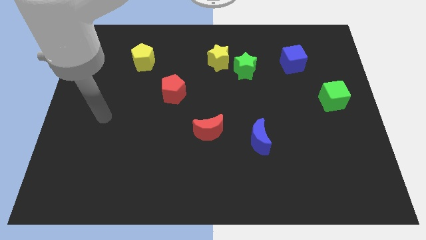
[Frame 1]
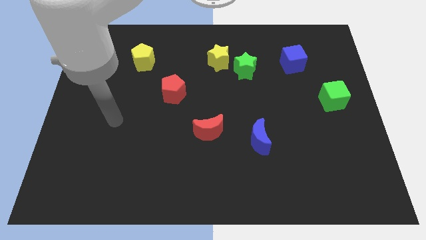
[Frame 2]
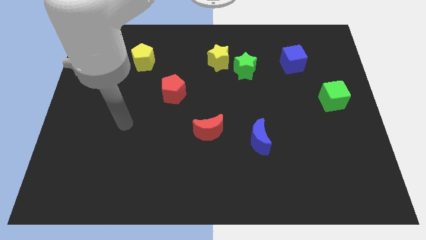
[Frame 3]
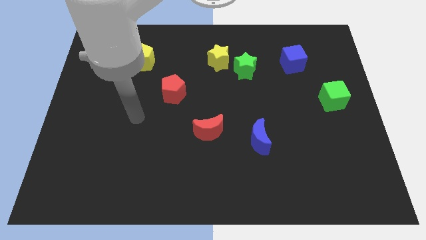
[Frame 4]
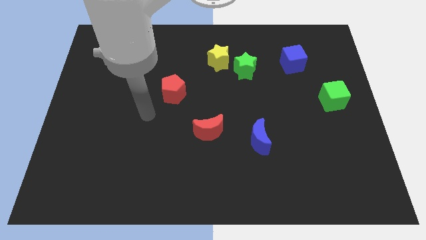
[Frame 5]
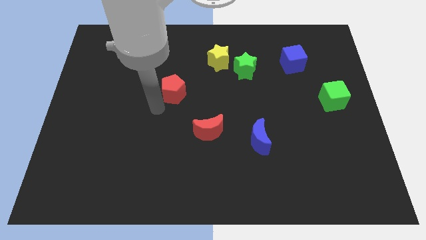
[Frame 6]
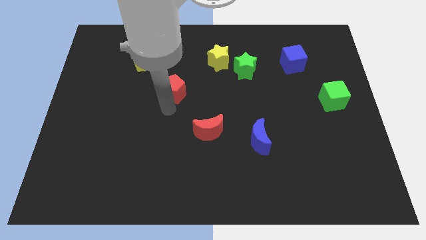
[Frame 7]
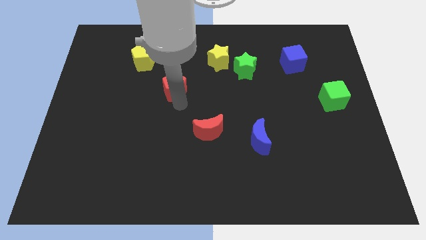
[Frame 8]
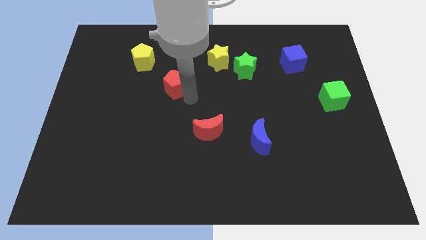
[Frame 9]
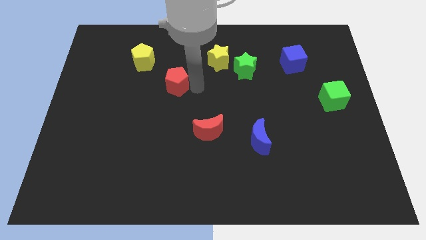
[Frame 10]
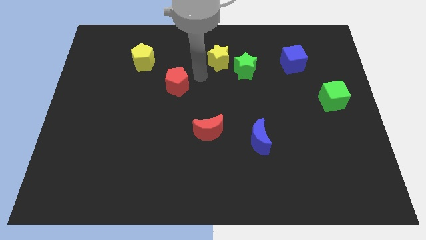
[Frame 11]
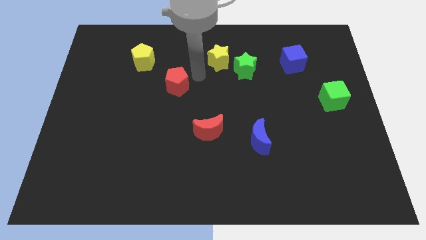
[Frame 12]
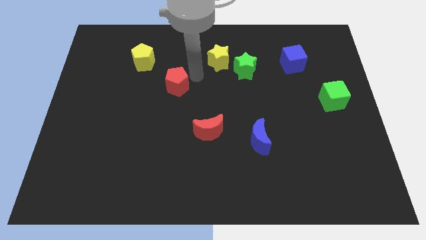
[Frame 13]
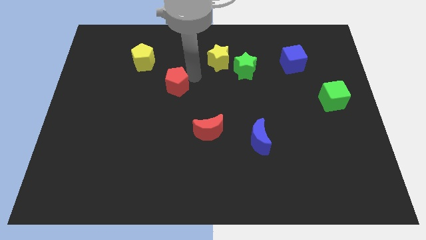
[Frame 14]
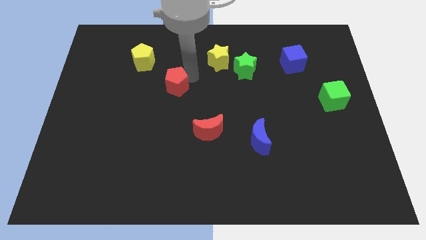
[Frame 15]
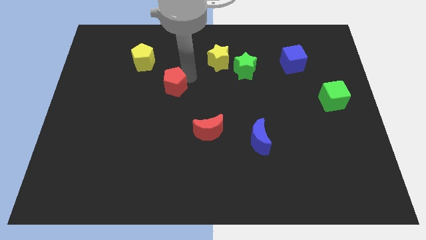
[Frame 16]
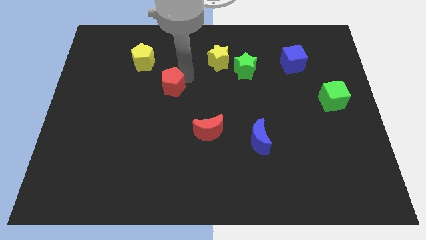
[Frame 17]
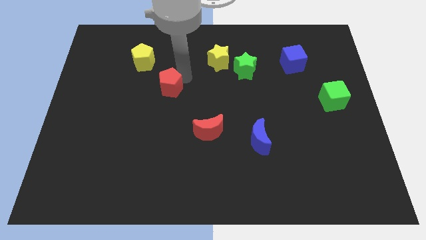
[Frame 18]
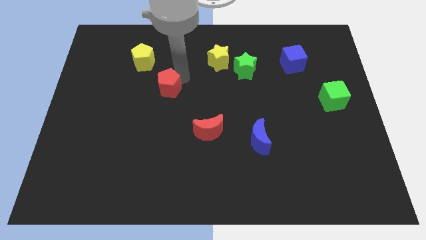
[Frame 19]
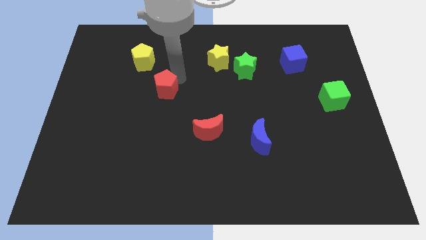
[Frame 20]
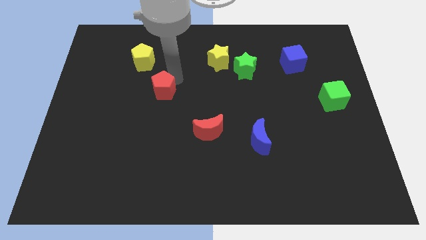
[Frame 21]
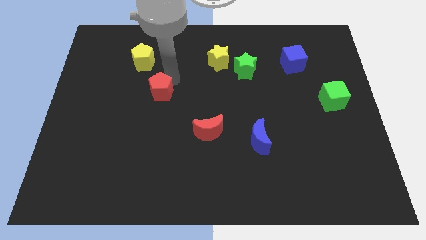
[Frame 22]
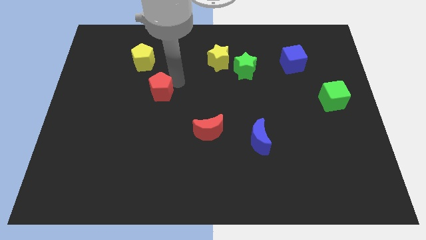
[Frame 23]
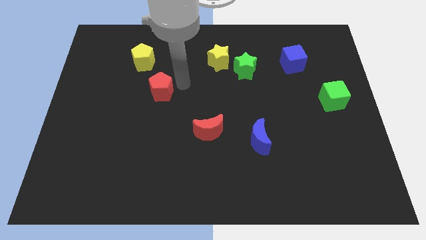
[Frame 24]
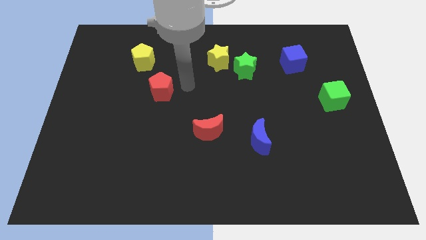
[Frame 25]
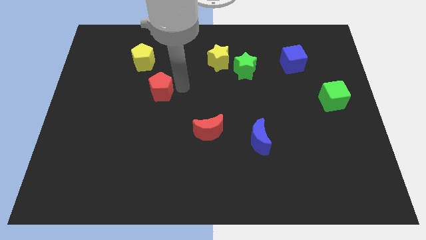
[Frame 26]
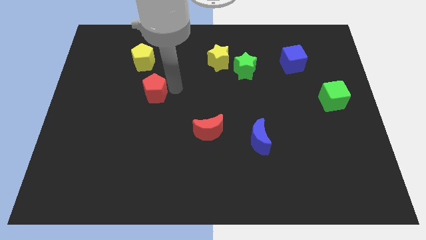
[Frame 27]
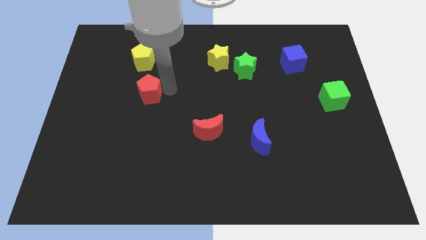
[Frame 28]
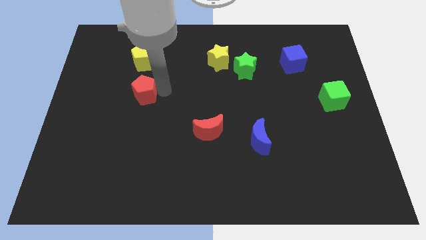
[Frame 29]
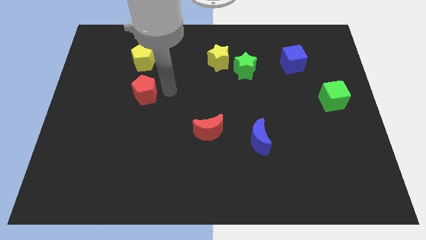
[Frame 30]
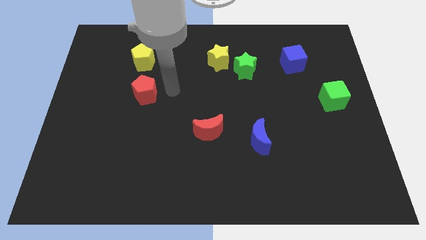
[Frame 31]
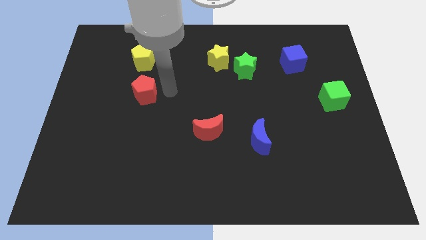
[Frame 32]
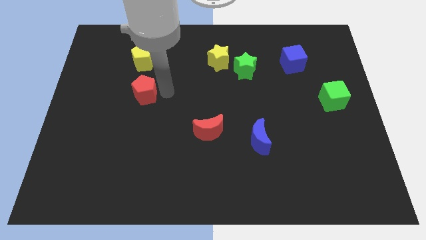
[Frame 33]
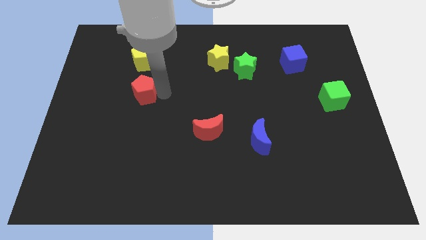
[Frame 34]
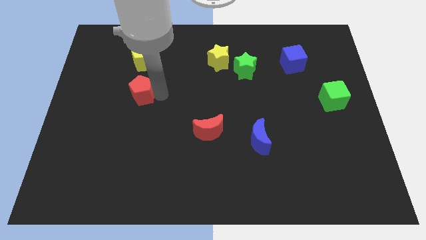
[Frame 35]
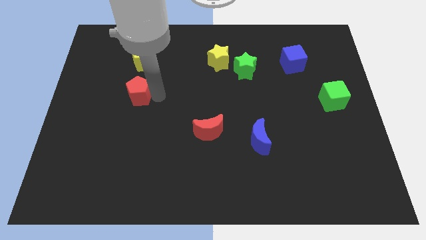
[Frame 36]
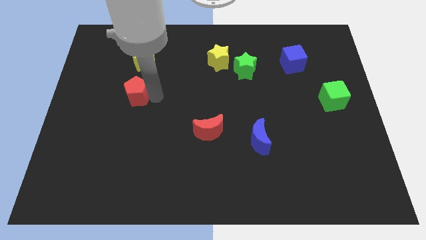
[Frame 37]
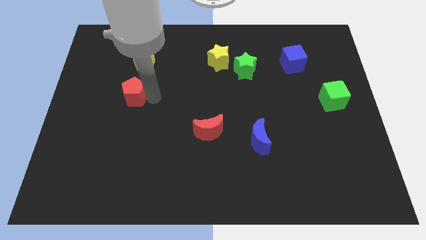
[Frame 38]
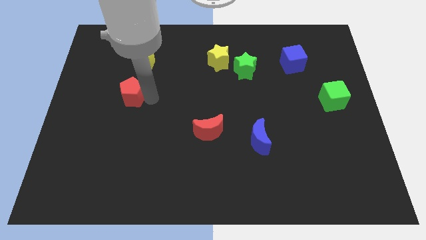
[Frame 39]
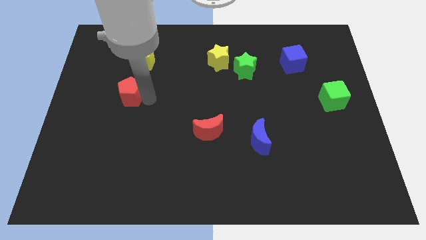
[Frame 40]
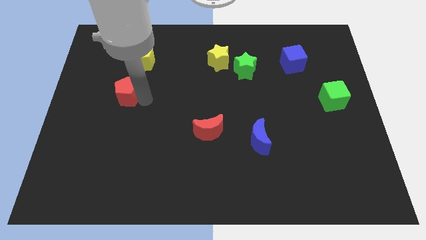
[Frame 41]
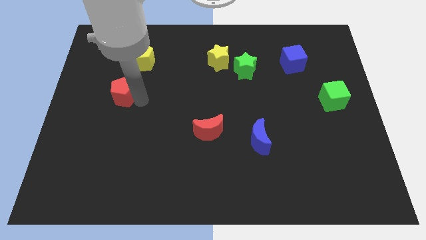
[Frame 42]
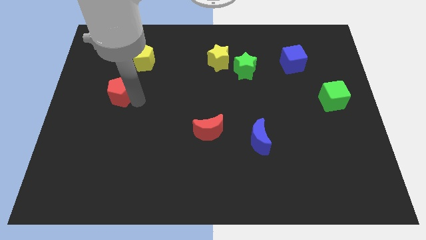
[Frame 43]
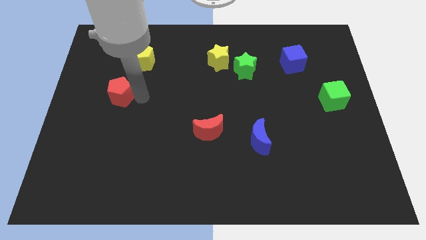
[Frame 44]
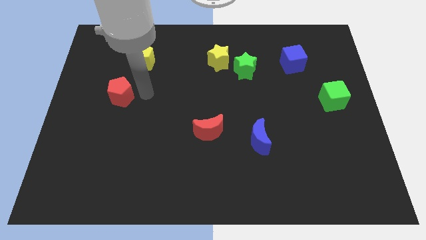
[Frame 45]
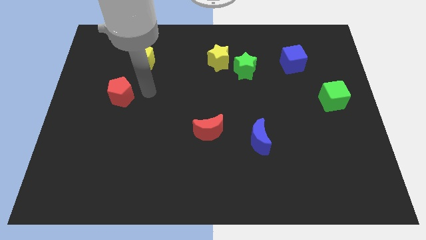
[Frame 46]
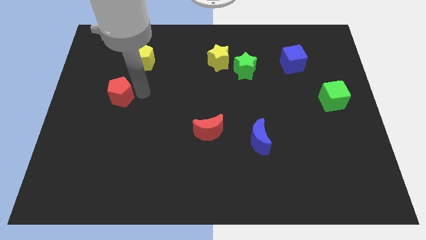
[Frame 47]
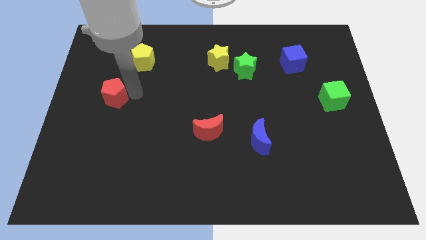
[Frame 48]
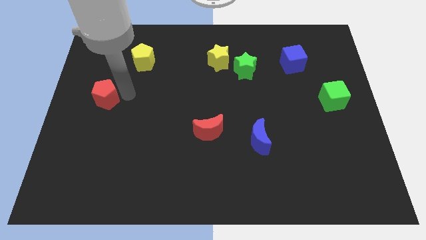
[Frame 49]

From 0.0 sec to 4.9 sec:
push the red pentagon to the center left

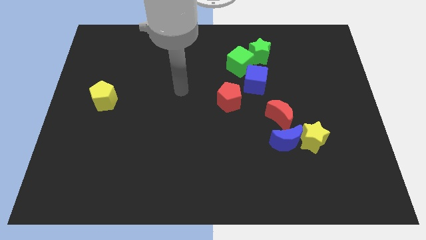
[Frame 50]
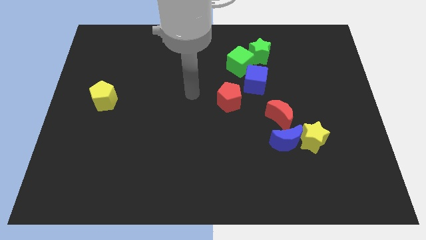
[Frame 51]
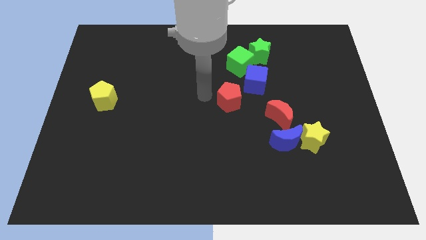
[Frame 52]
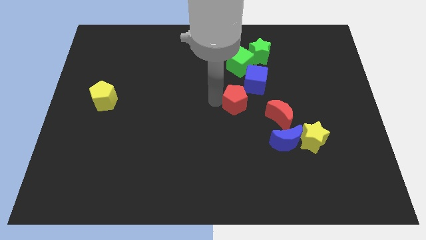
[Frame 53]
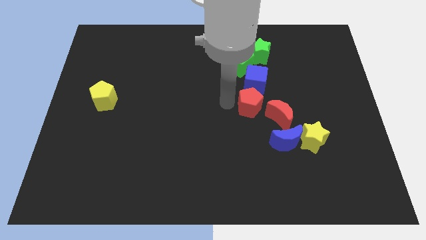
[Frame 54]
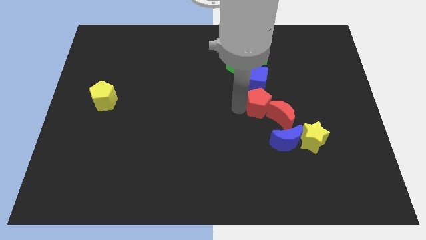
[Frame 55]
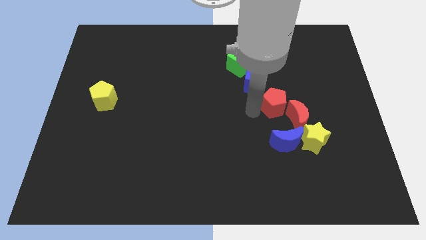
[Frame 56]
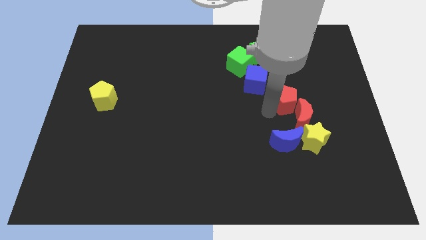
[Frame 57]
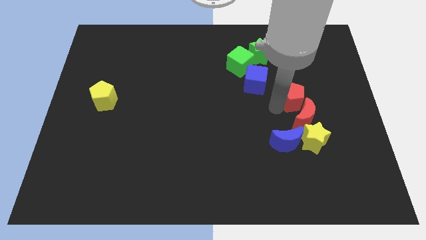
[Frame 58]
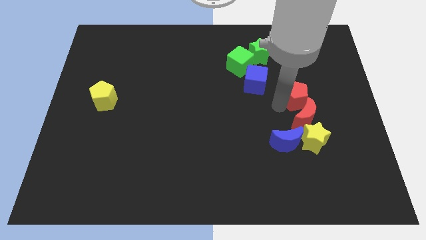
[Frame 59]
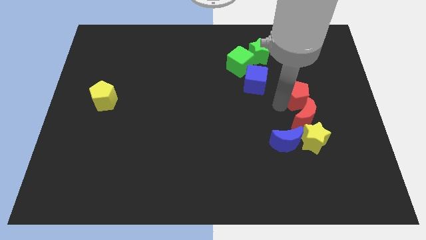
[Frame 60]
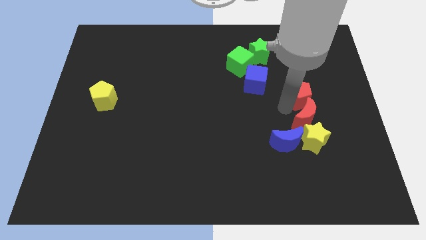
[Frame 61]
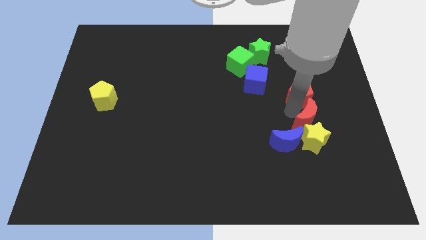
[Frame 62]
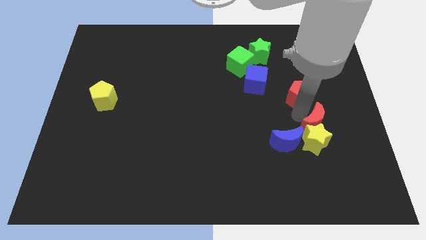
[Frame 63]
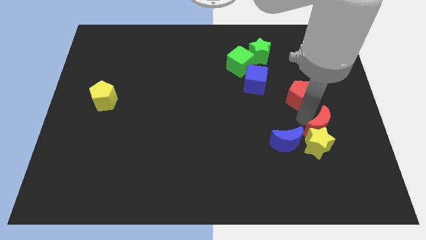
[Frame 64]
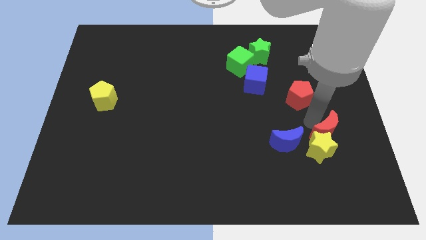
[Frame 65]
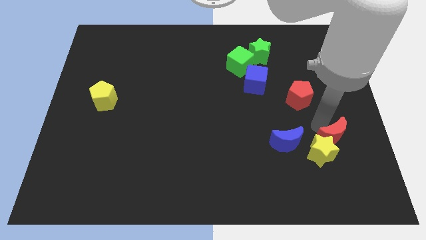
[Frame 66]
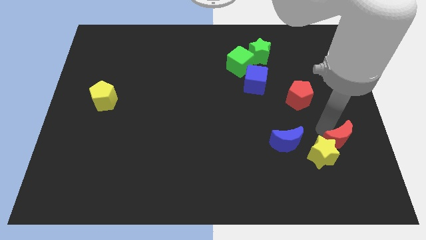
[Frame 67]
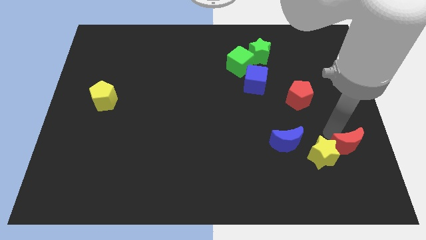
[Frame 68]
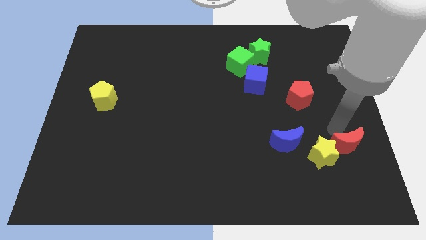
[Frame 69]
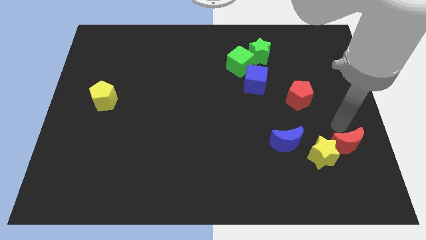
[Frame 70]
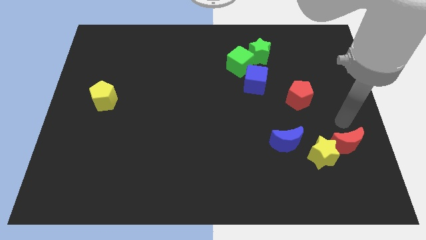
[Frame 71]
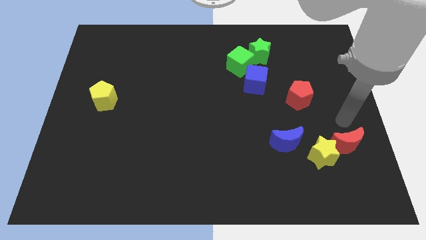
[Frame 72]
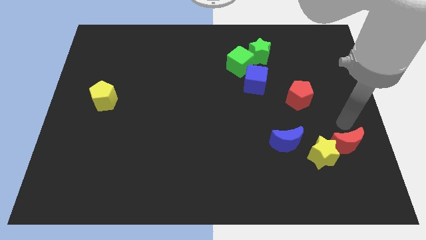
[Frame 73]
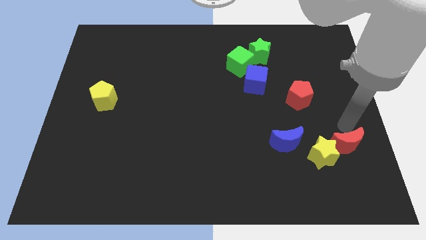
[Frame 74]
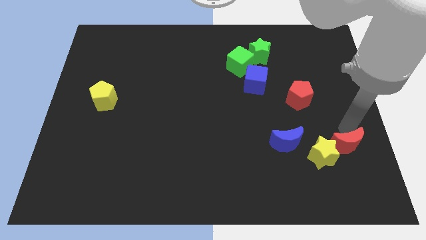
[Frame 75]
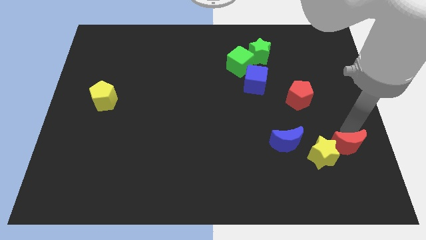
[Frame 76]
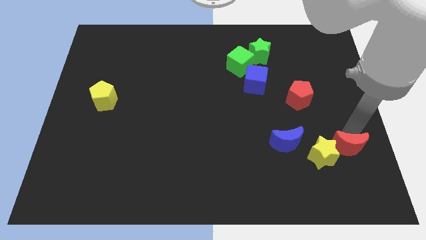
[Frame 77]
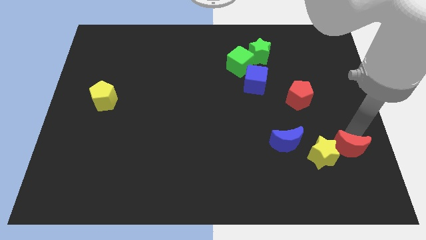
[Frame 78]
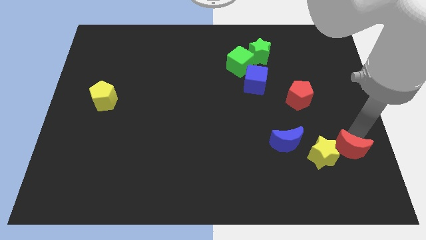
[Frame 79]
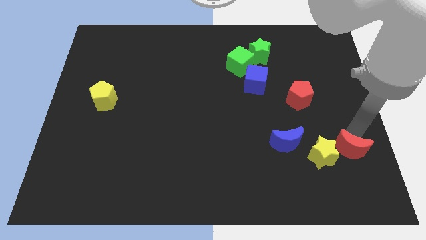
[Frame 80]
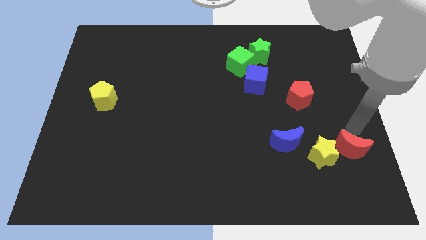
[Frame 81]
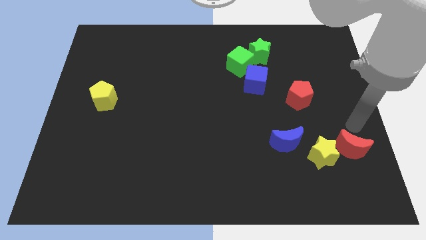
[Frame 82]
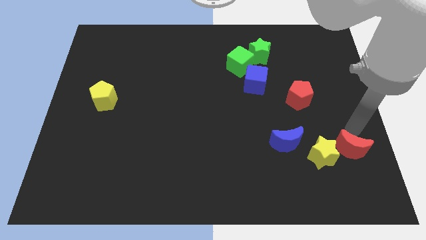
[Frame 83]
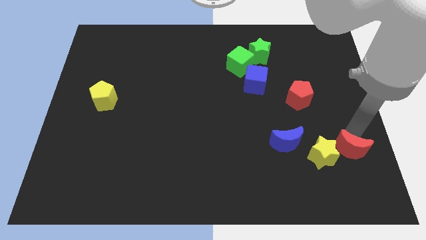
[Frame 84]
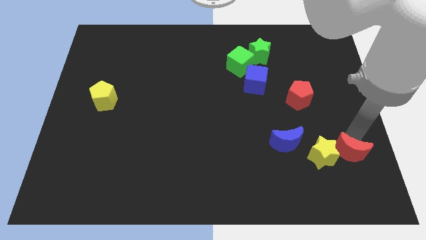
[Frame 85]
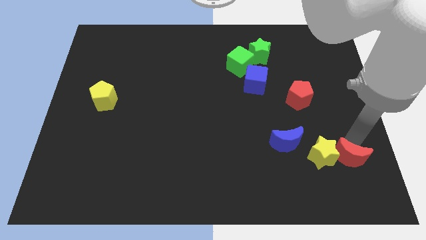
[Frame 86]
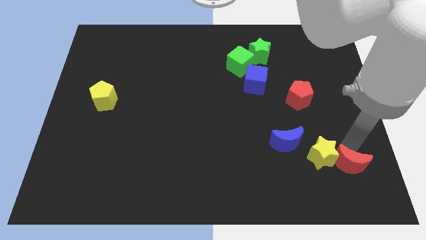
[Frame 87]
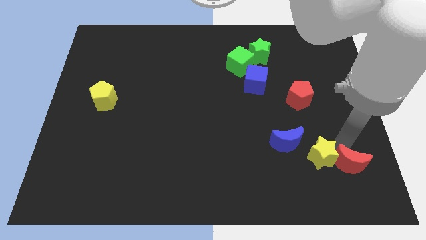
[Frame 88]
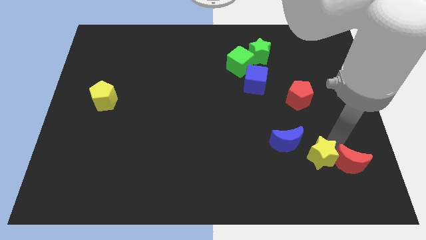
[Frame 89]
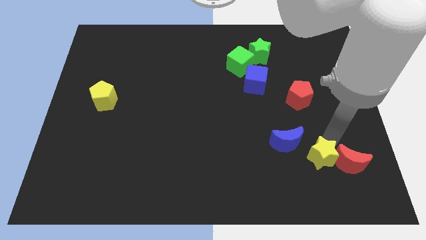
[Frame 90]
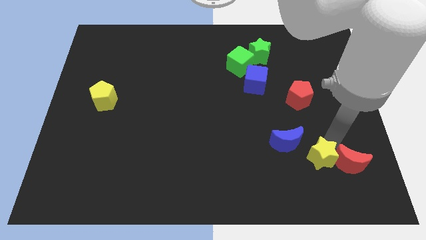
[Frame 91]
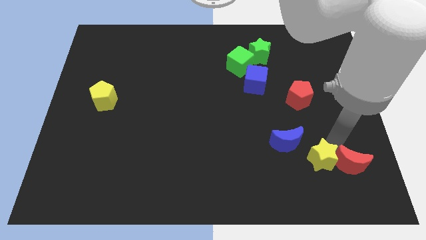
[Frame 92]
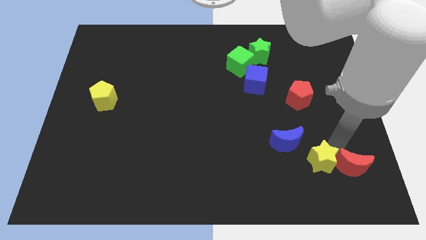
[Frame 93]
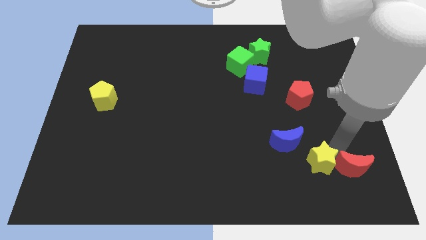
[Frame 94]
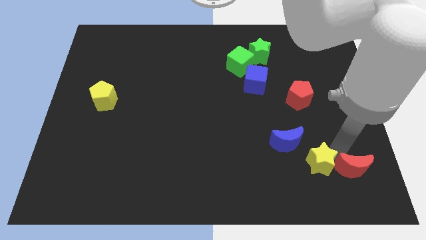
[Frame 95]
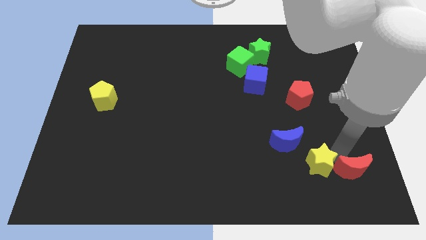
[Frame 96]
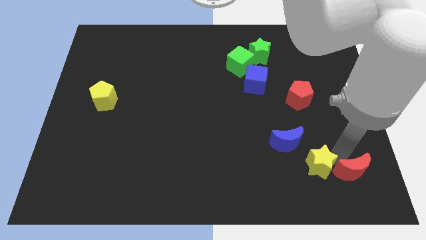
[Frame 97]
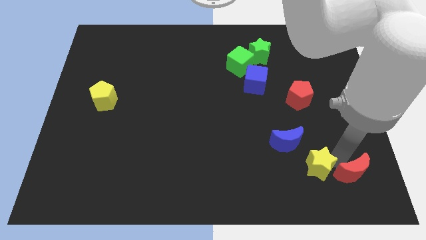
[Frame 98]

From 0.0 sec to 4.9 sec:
slide the red moon to the bottom right of the board
